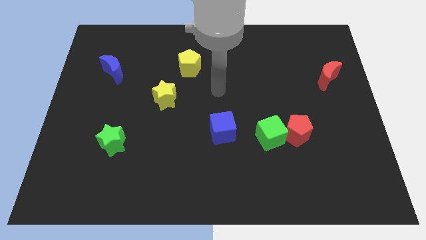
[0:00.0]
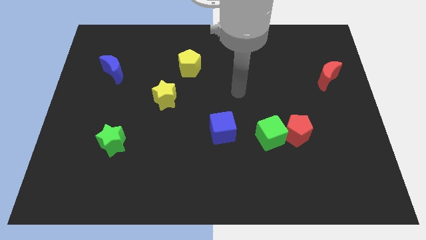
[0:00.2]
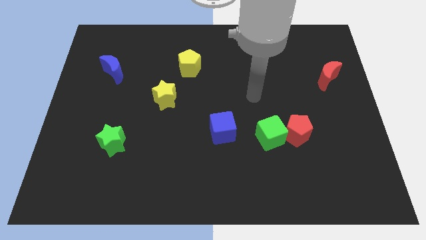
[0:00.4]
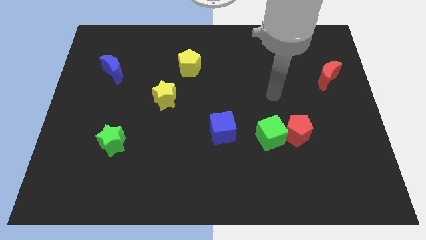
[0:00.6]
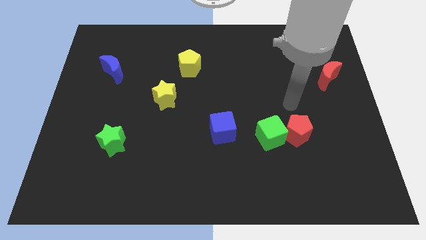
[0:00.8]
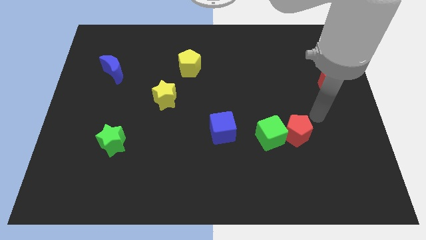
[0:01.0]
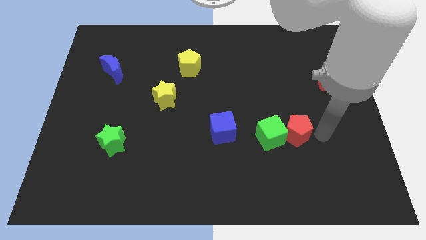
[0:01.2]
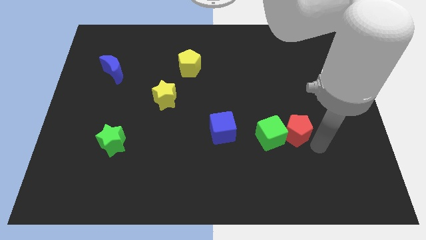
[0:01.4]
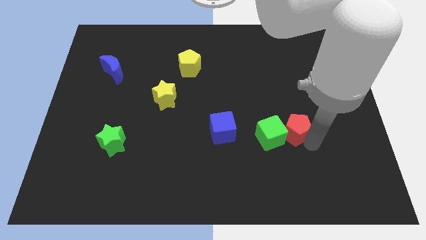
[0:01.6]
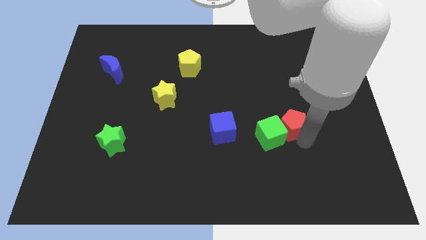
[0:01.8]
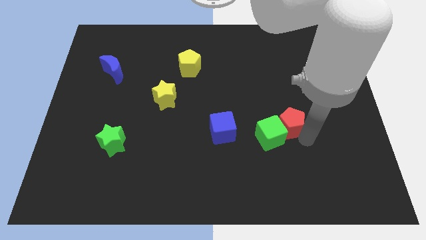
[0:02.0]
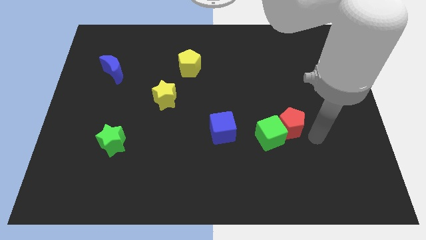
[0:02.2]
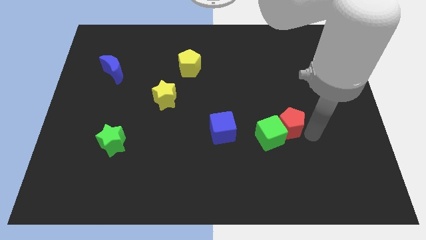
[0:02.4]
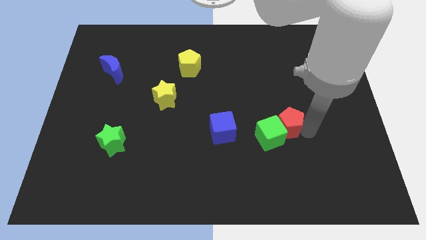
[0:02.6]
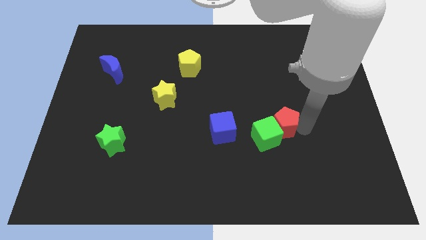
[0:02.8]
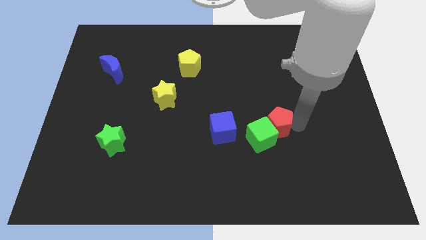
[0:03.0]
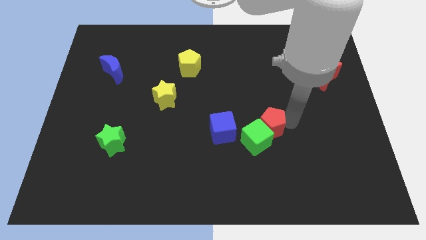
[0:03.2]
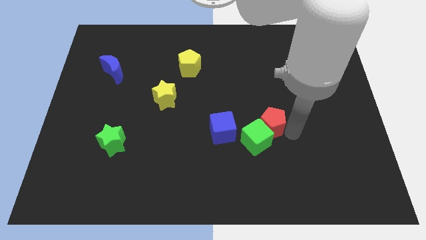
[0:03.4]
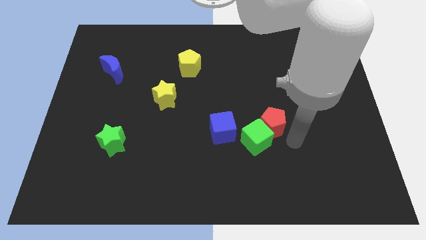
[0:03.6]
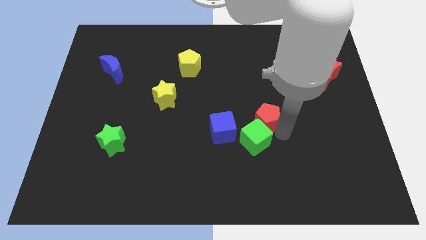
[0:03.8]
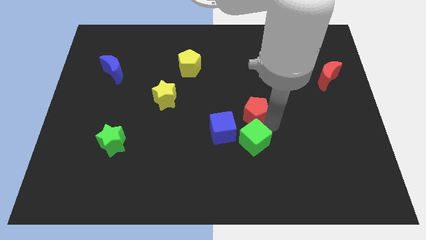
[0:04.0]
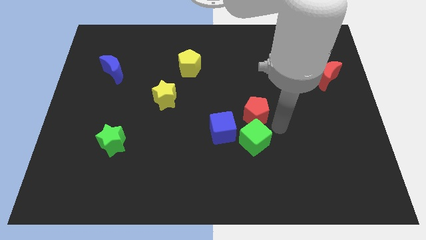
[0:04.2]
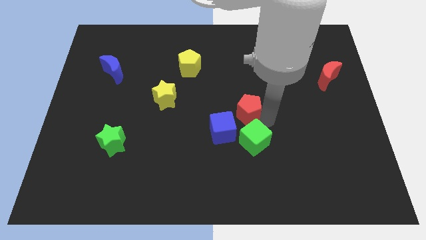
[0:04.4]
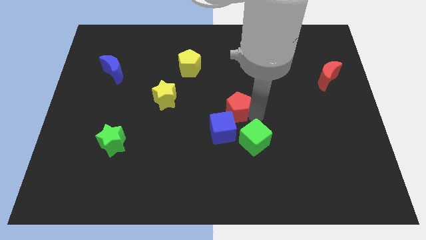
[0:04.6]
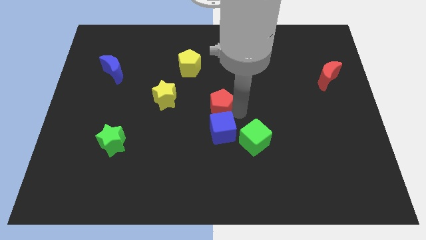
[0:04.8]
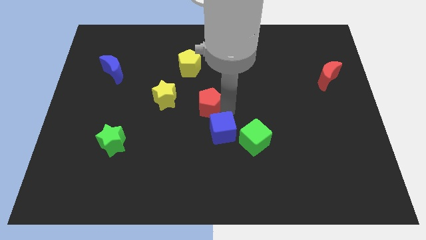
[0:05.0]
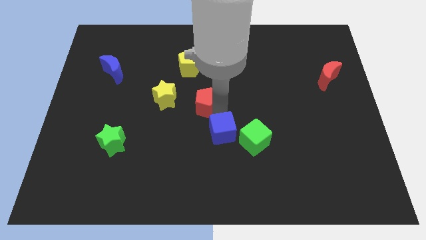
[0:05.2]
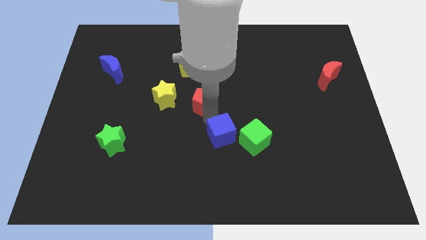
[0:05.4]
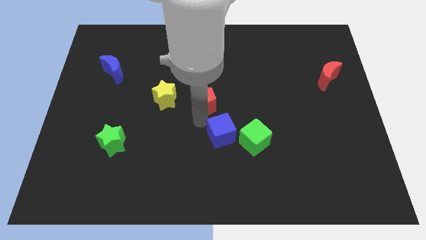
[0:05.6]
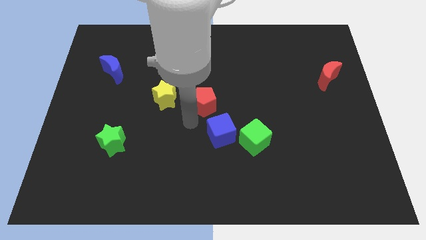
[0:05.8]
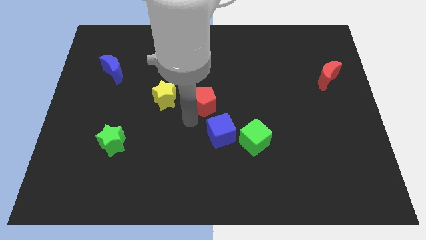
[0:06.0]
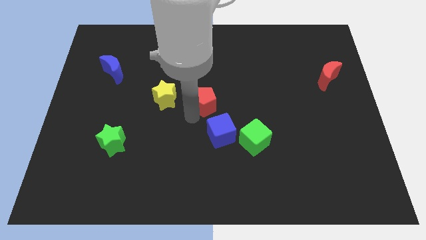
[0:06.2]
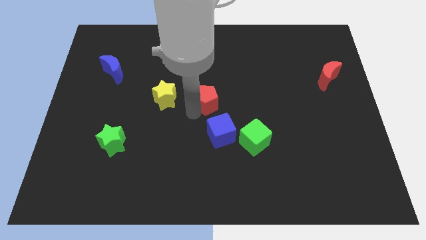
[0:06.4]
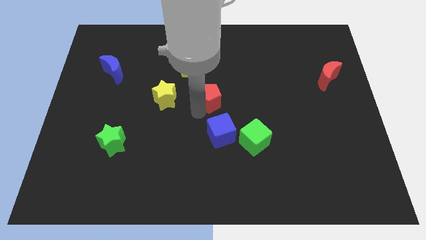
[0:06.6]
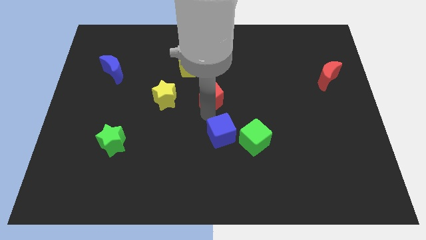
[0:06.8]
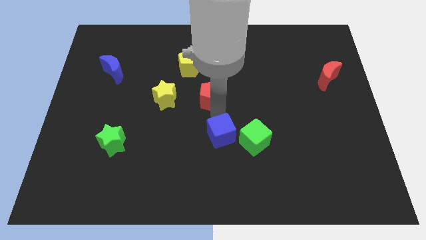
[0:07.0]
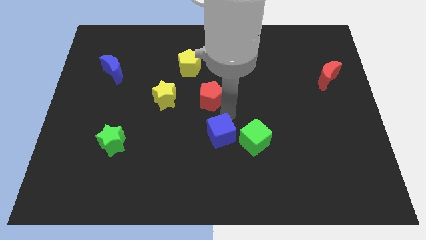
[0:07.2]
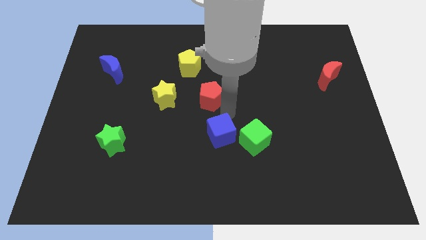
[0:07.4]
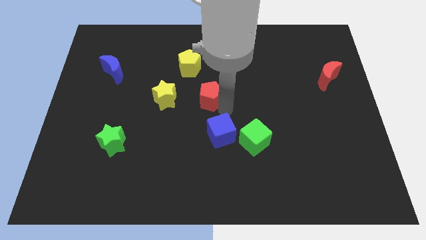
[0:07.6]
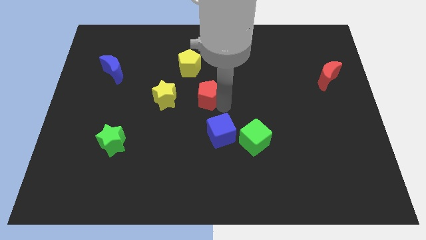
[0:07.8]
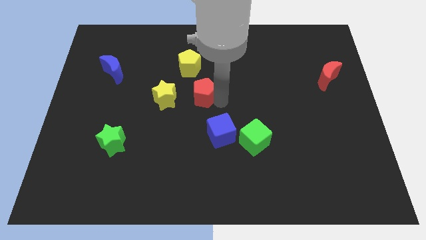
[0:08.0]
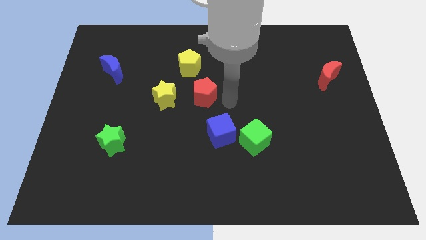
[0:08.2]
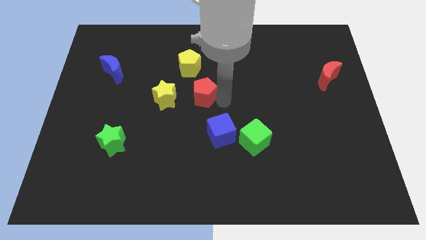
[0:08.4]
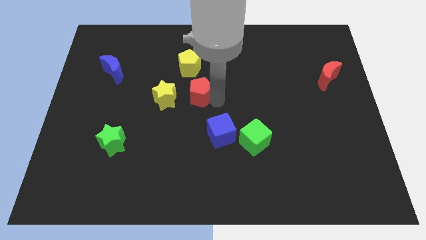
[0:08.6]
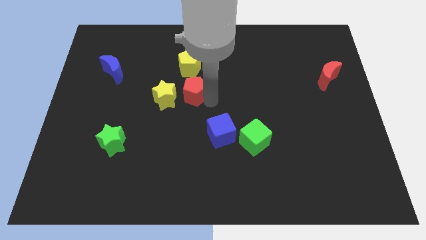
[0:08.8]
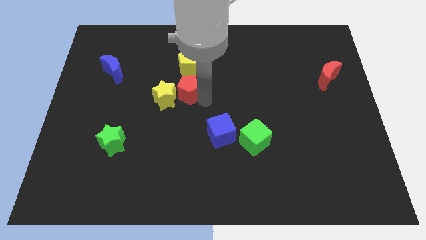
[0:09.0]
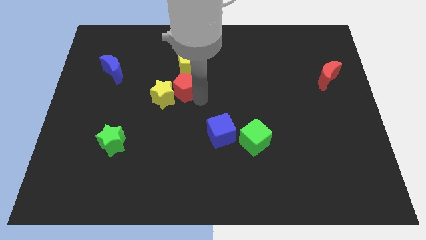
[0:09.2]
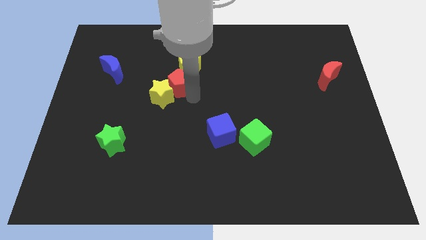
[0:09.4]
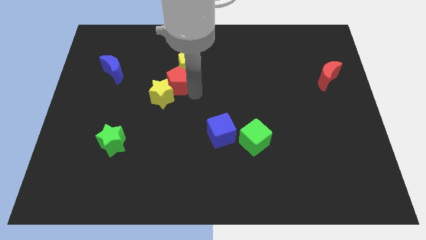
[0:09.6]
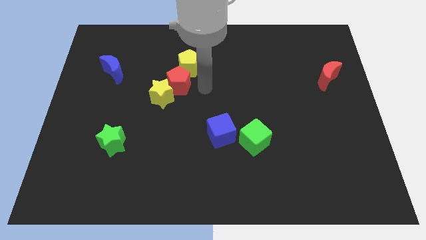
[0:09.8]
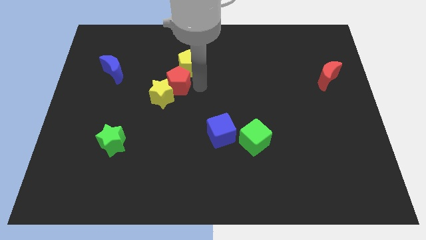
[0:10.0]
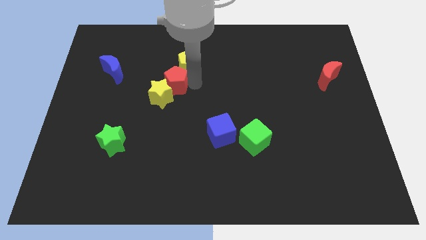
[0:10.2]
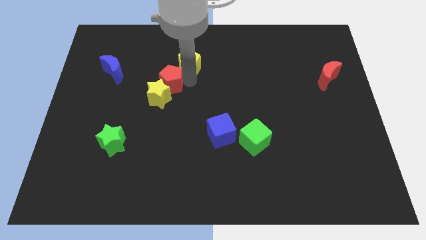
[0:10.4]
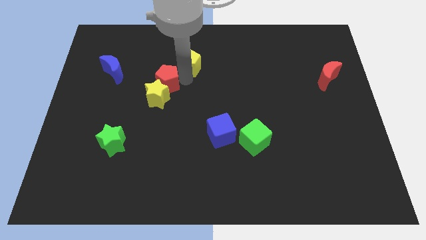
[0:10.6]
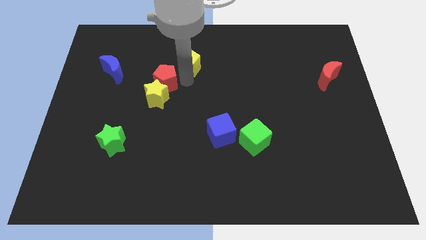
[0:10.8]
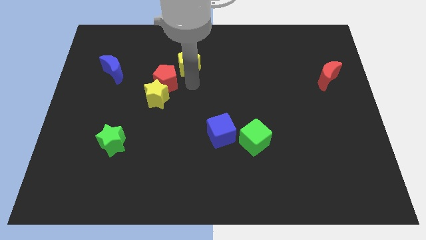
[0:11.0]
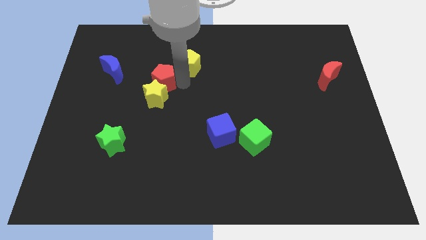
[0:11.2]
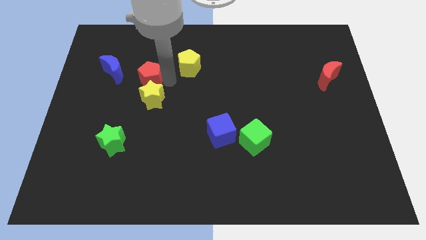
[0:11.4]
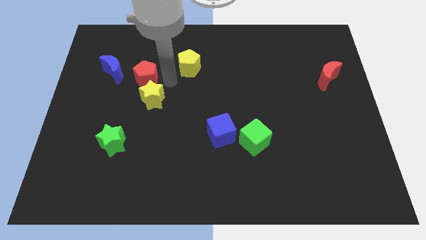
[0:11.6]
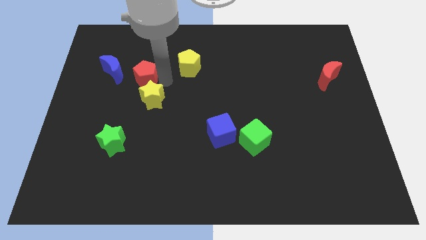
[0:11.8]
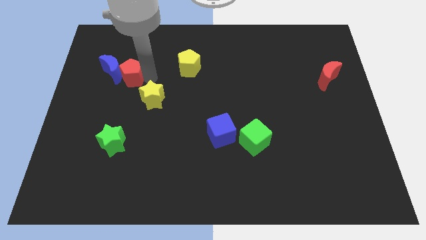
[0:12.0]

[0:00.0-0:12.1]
put the red pentagon towards the blue moon
